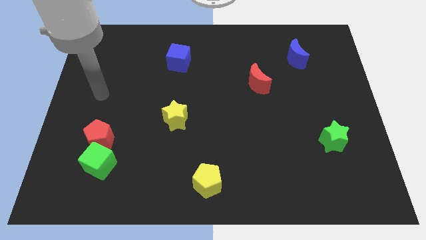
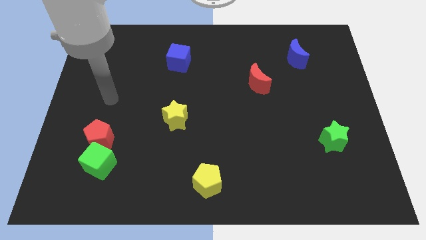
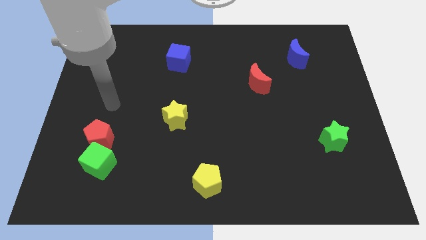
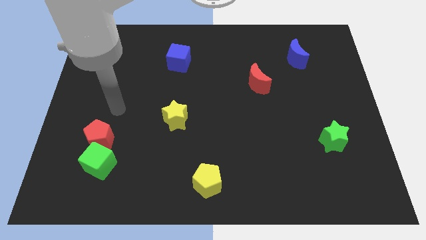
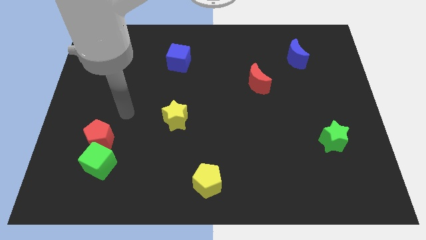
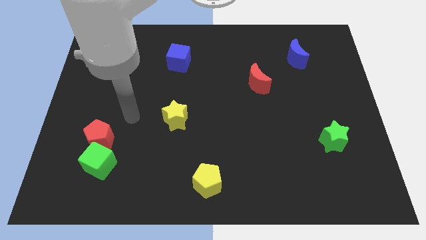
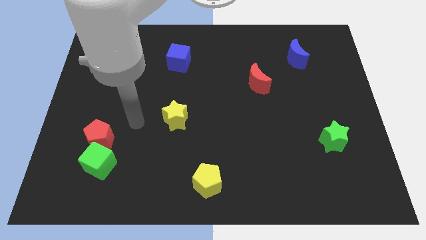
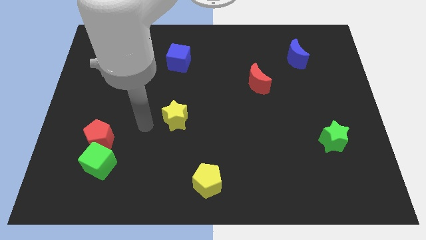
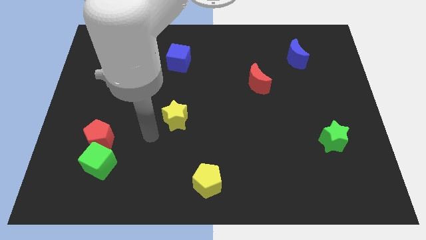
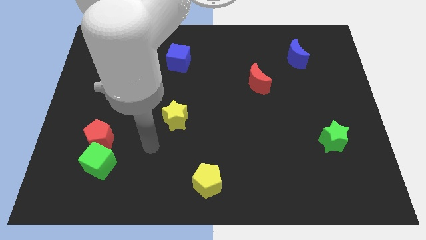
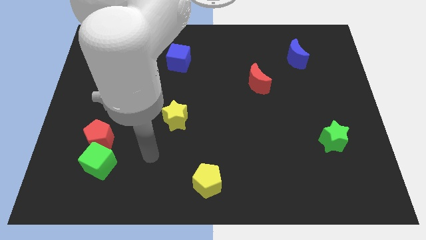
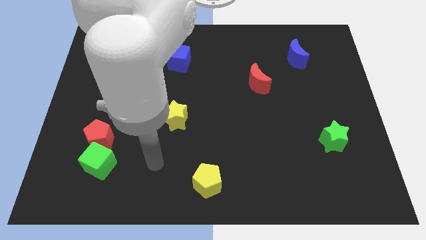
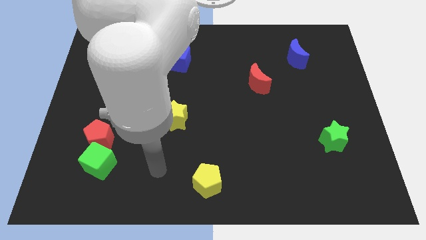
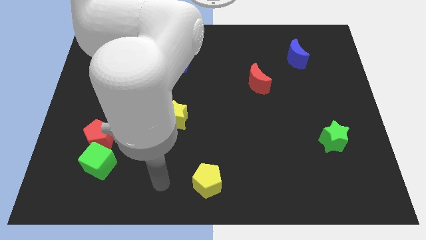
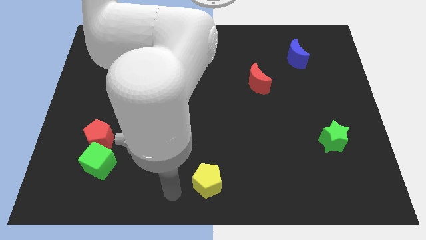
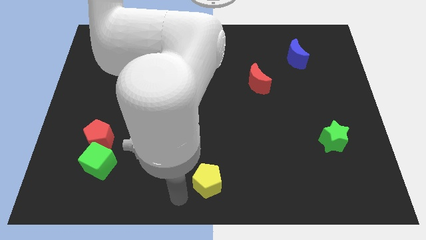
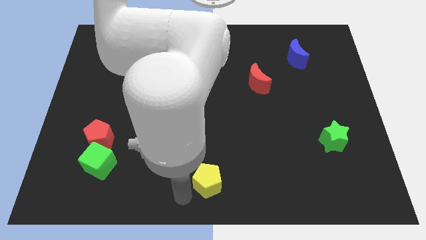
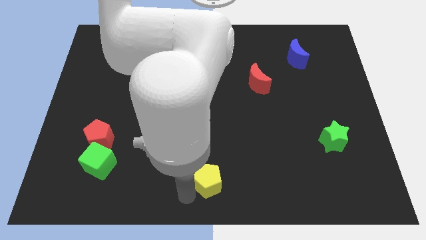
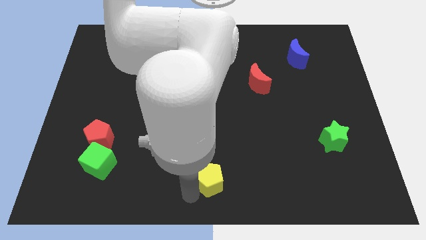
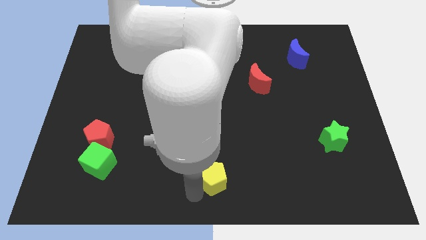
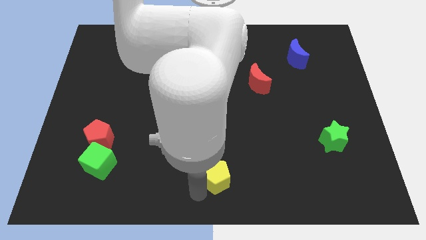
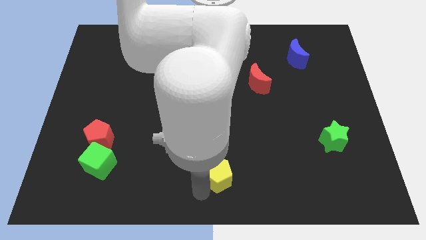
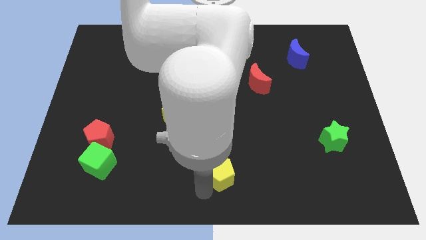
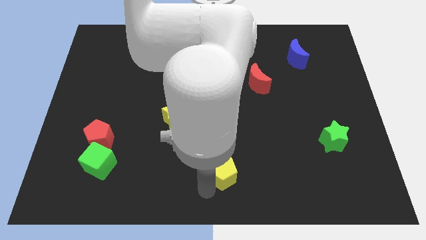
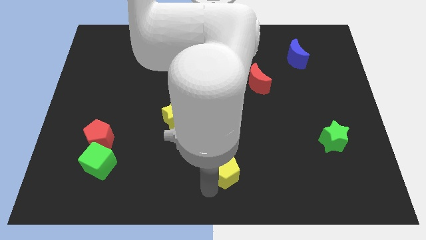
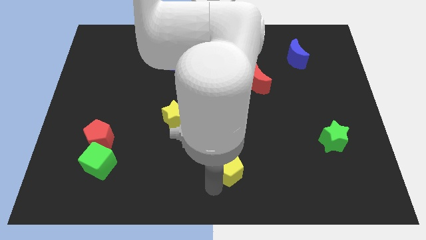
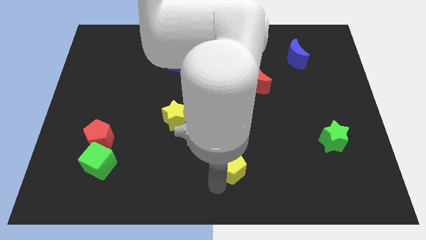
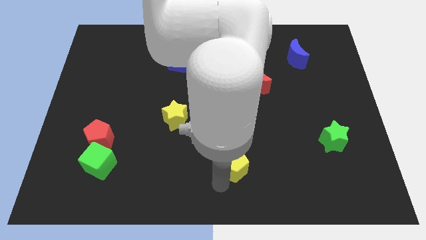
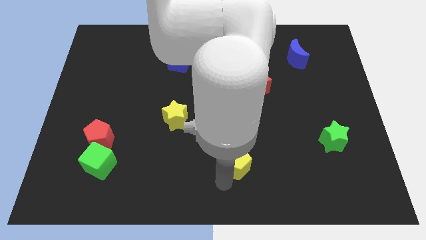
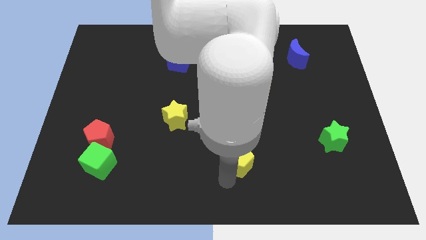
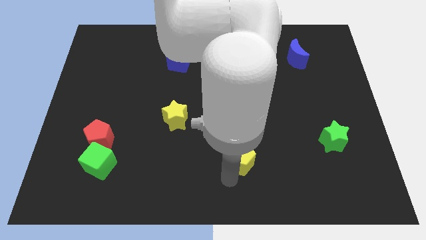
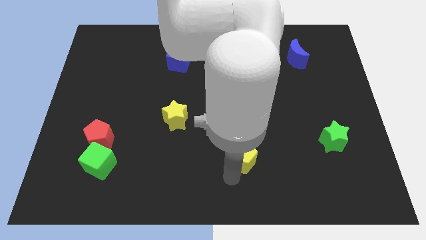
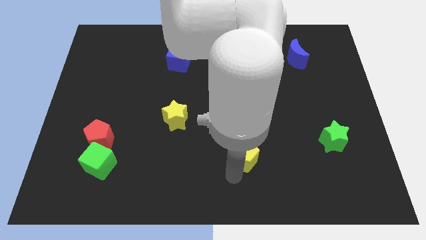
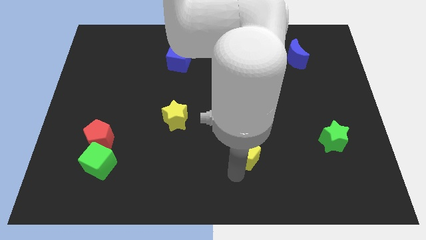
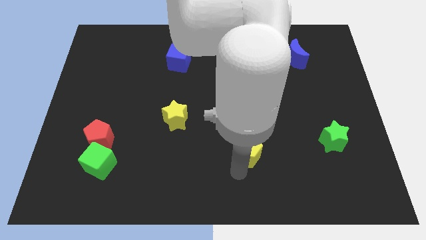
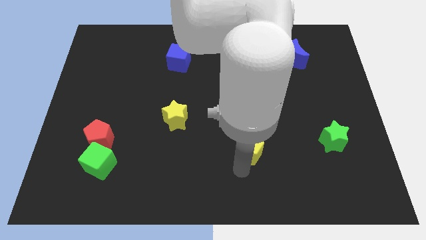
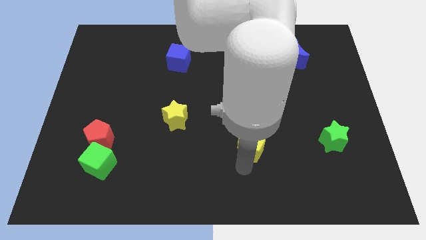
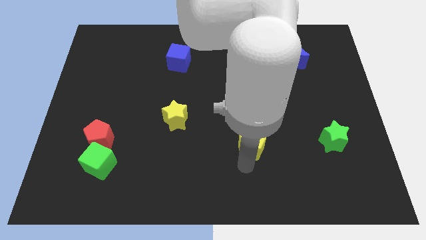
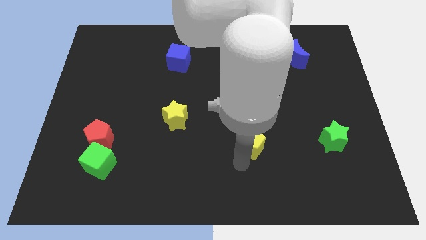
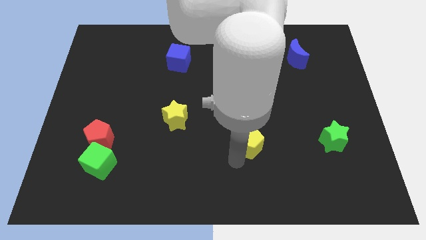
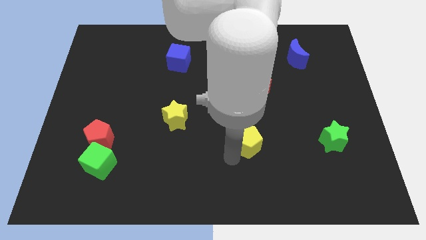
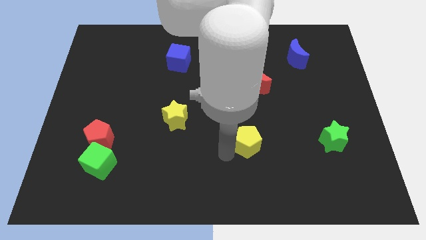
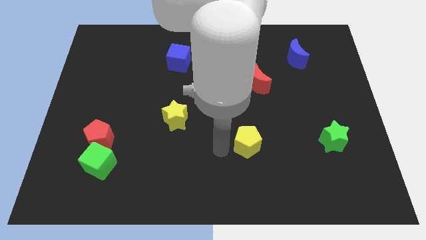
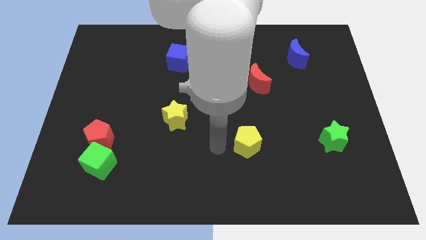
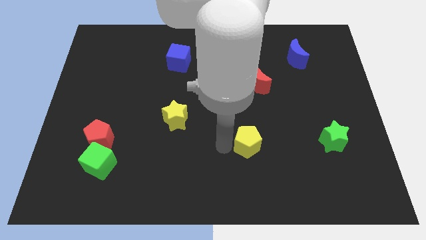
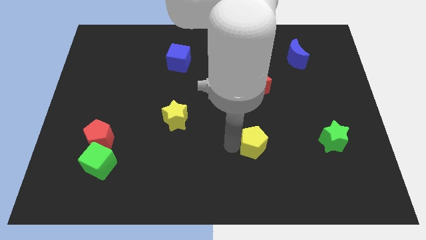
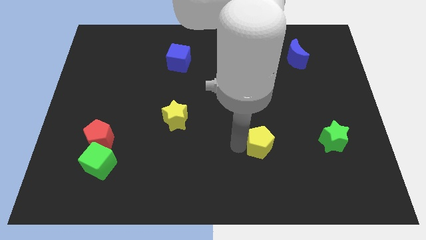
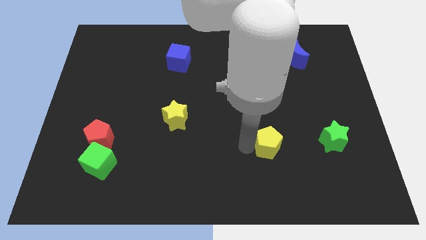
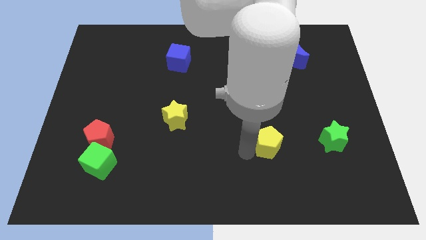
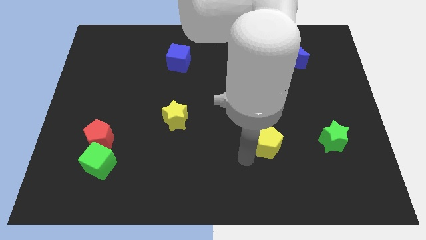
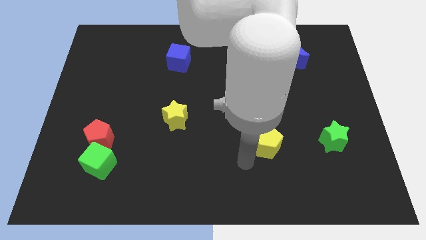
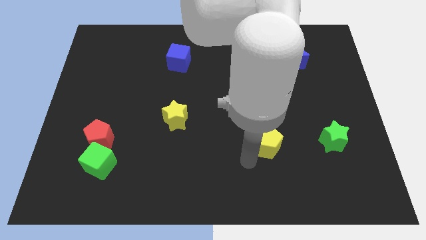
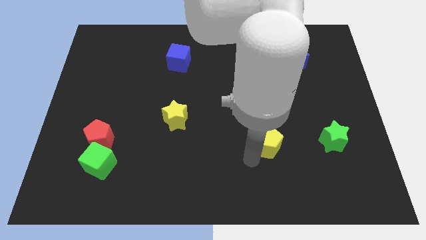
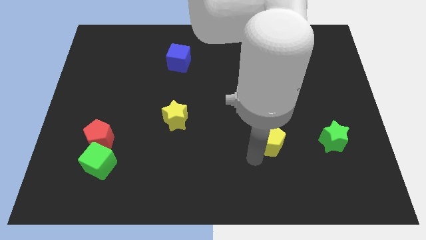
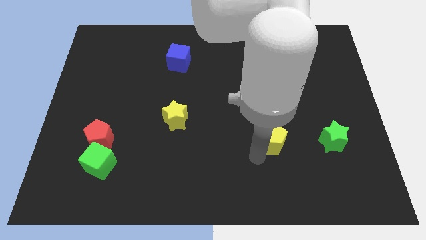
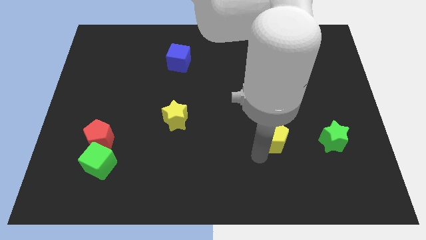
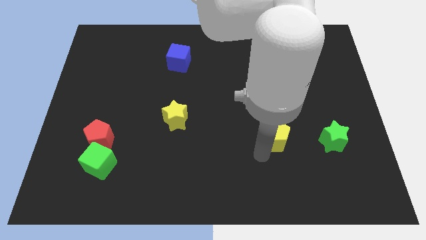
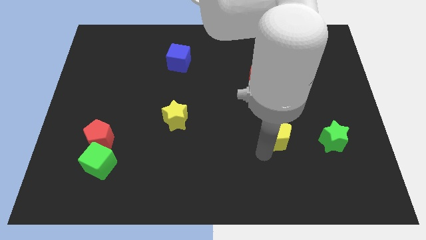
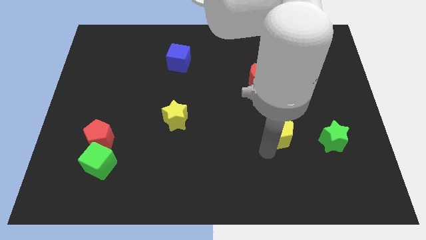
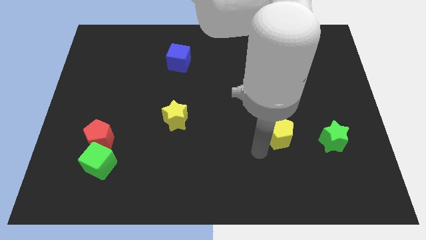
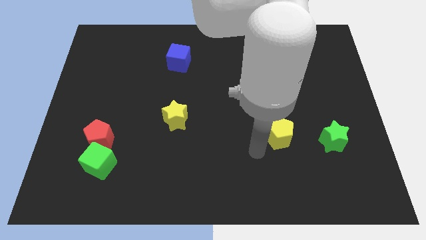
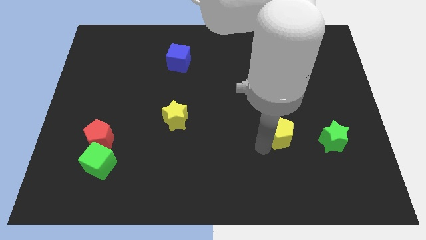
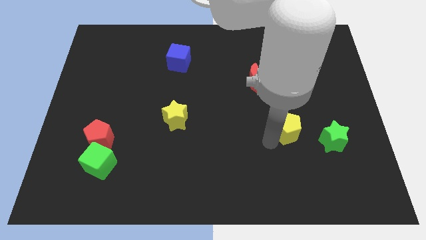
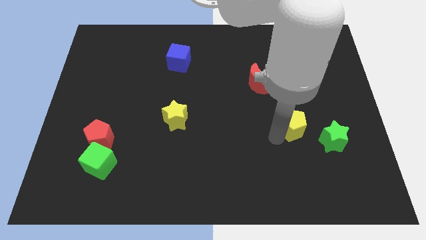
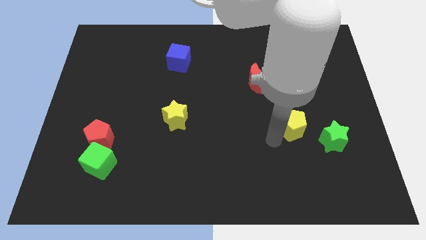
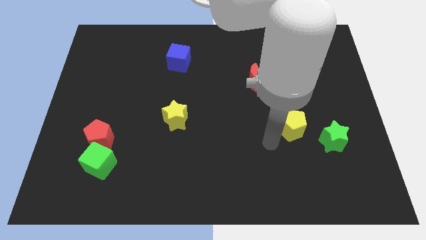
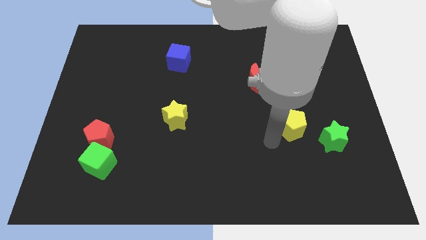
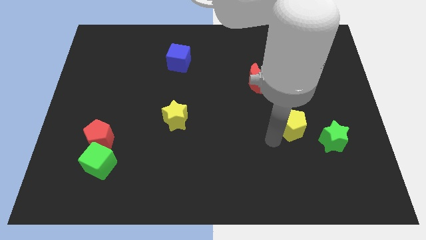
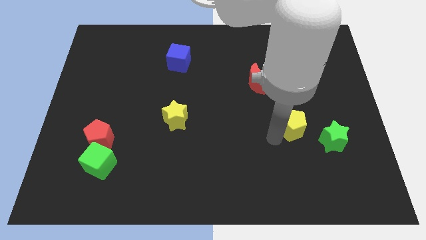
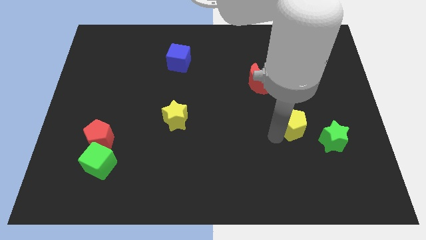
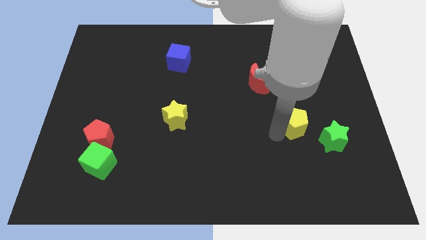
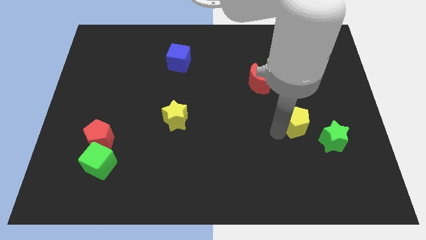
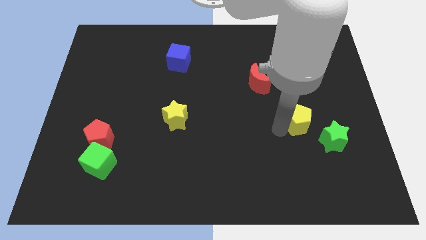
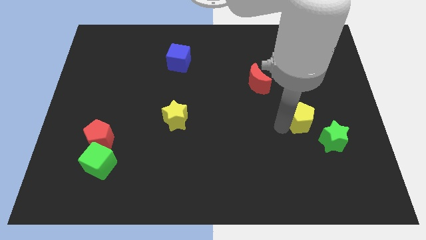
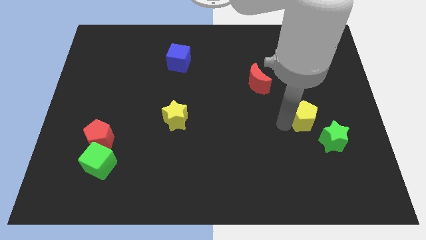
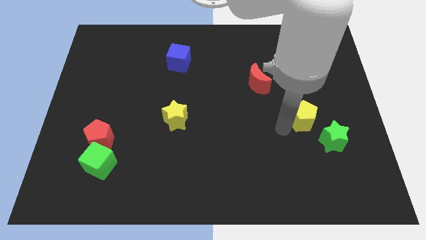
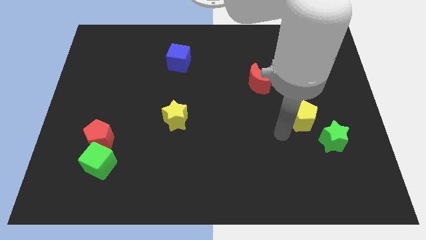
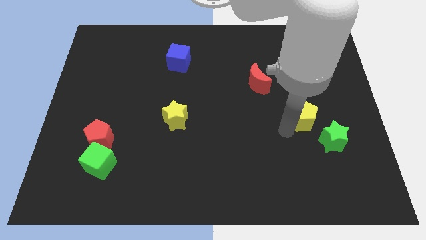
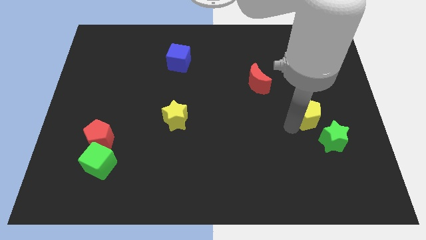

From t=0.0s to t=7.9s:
move the yellow pentagon to the top of the green star
